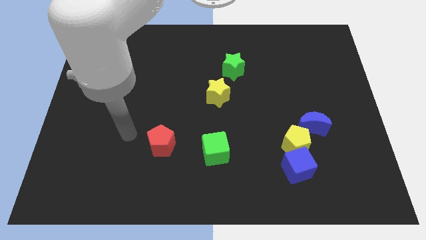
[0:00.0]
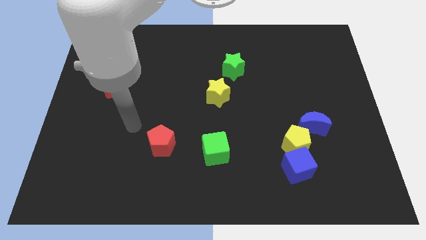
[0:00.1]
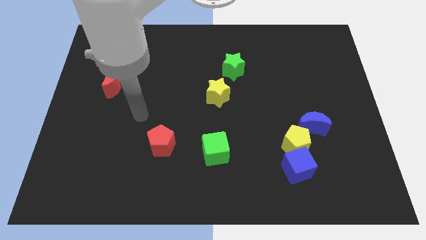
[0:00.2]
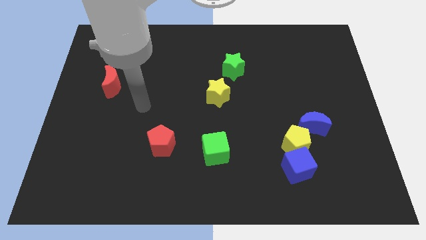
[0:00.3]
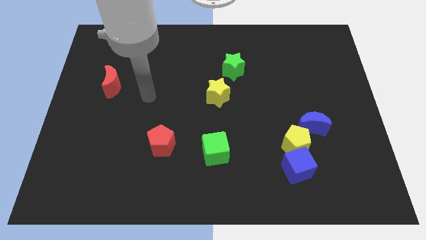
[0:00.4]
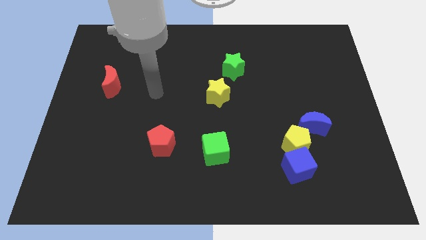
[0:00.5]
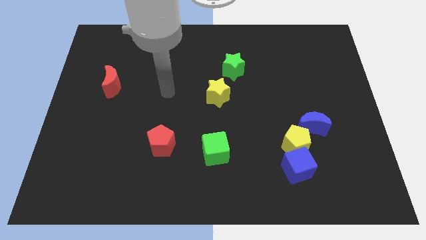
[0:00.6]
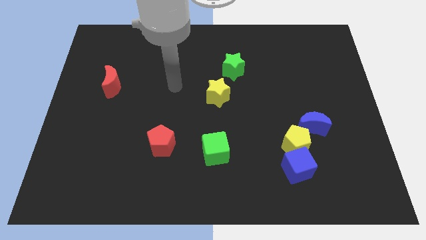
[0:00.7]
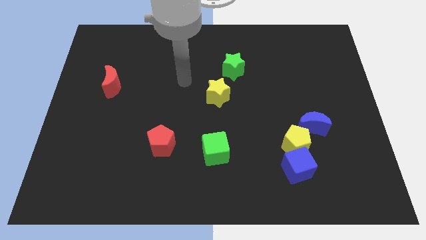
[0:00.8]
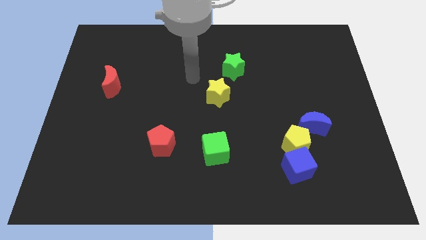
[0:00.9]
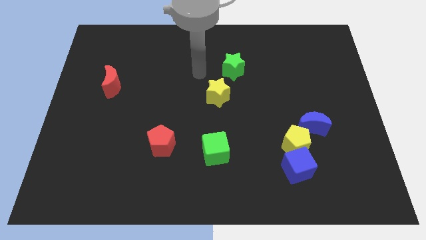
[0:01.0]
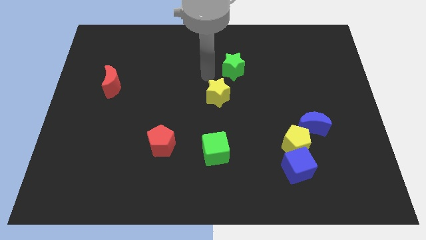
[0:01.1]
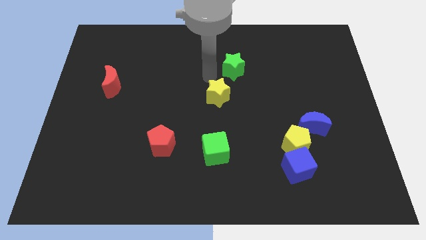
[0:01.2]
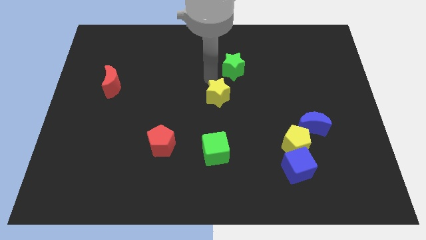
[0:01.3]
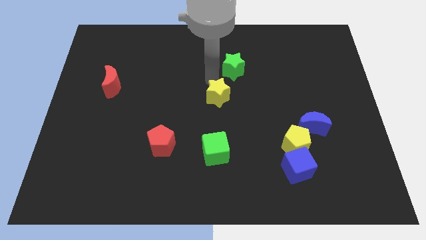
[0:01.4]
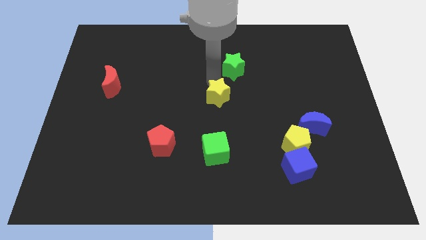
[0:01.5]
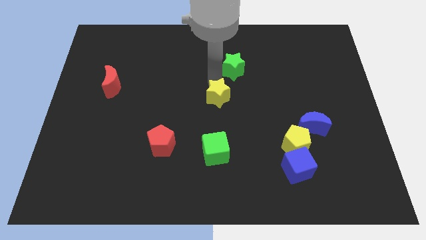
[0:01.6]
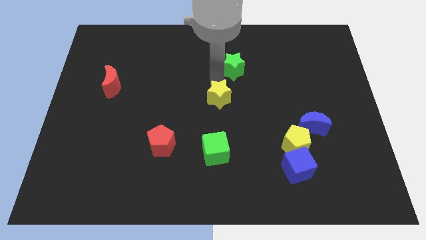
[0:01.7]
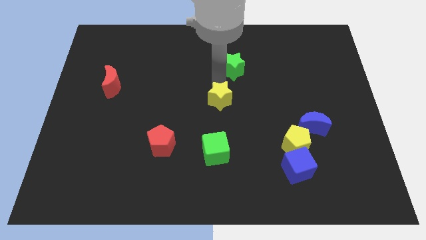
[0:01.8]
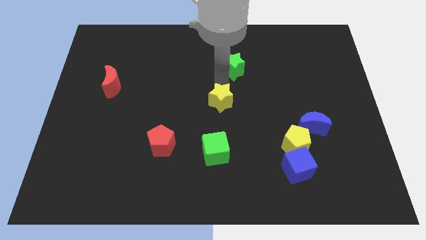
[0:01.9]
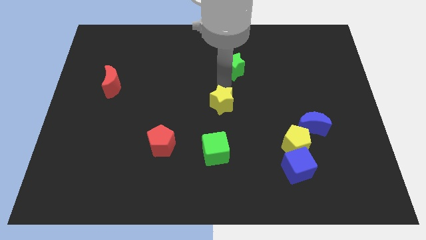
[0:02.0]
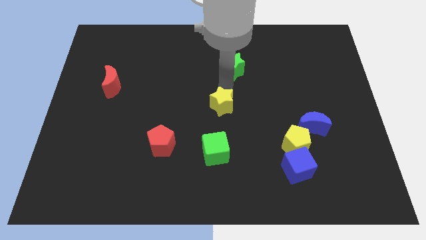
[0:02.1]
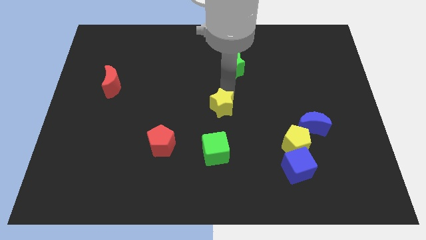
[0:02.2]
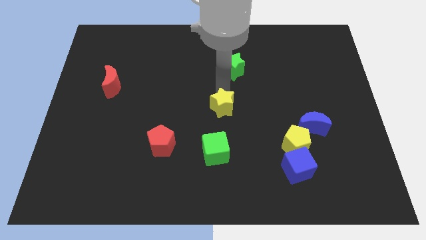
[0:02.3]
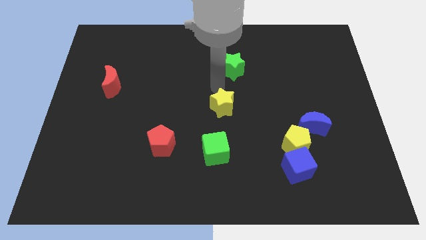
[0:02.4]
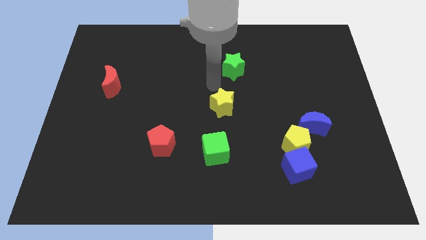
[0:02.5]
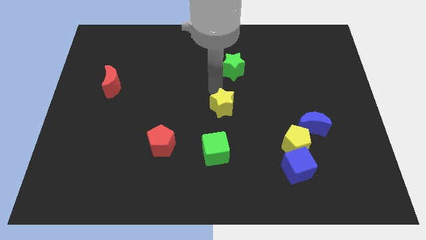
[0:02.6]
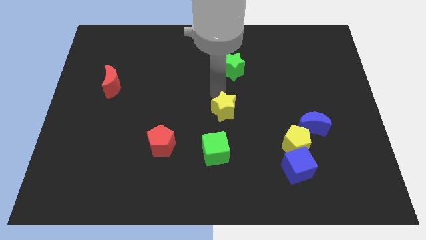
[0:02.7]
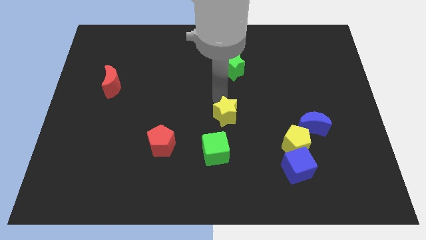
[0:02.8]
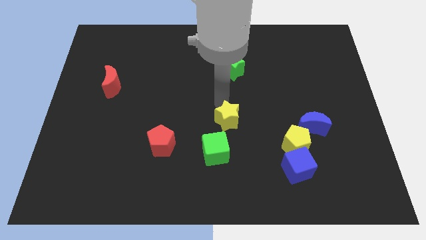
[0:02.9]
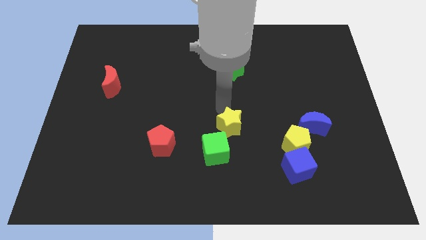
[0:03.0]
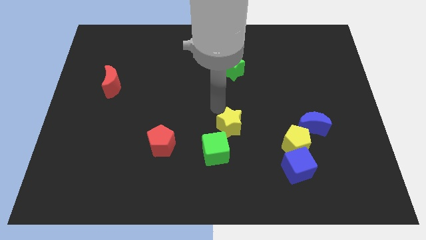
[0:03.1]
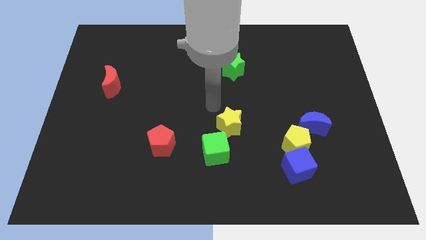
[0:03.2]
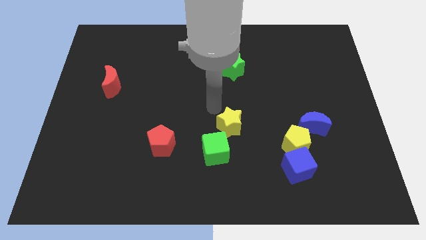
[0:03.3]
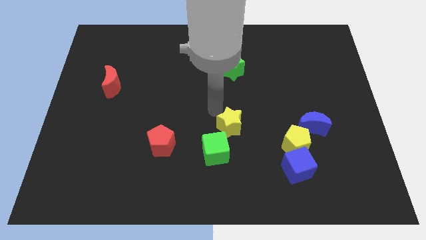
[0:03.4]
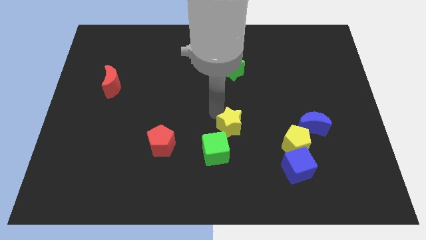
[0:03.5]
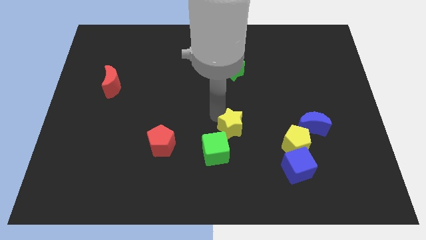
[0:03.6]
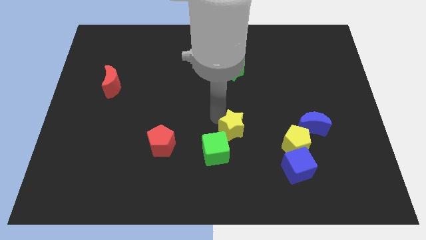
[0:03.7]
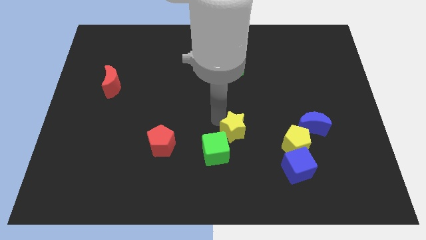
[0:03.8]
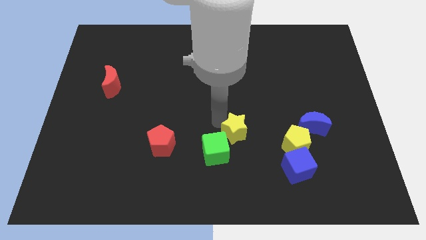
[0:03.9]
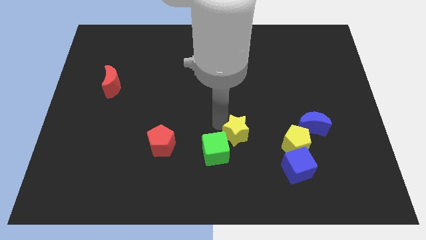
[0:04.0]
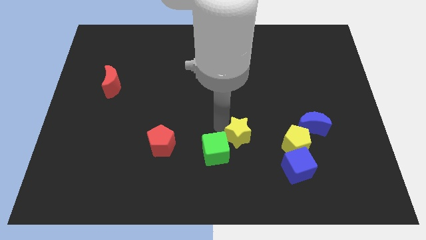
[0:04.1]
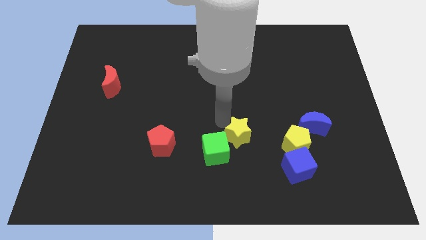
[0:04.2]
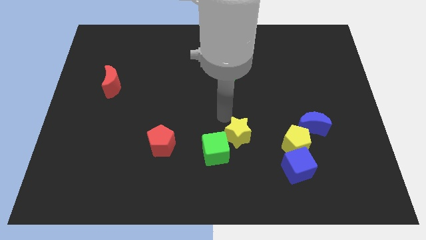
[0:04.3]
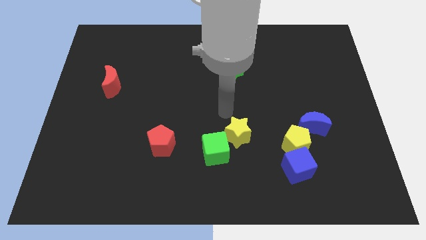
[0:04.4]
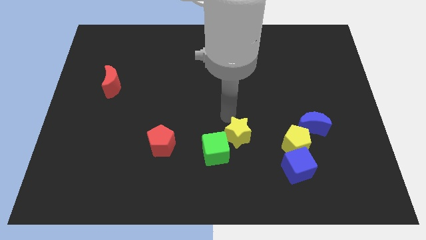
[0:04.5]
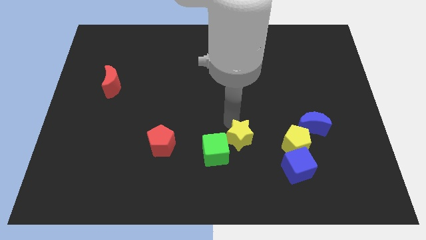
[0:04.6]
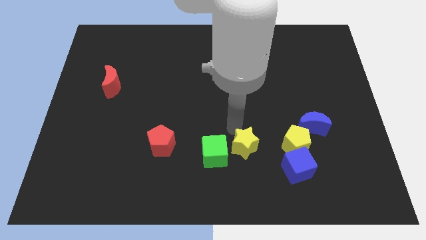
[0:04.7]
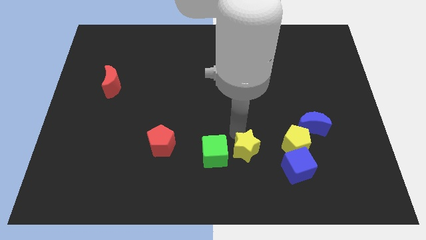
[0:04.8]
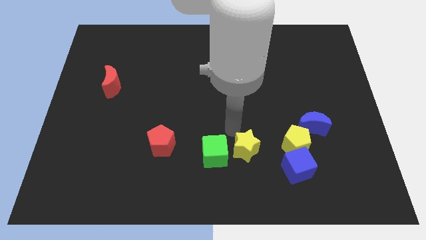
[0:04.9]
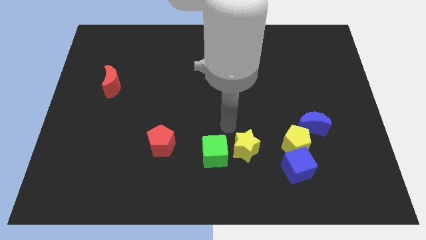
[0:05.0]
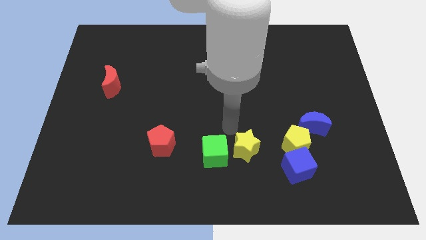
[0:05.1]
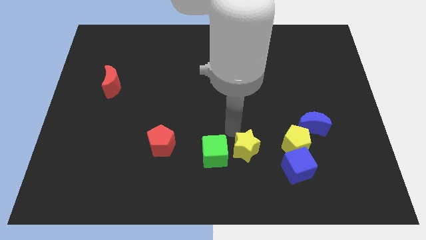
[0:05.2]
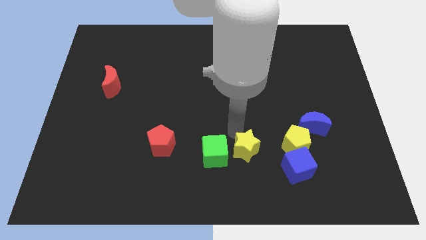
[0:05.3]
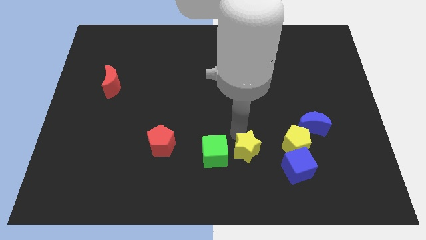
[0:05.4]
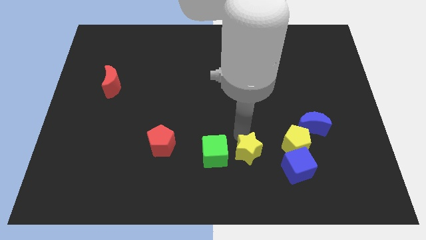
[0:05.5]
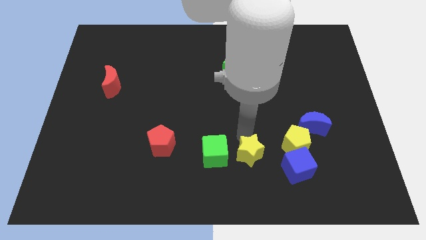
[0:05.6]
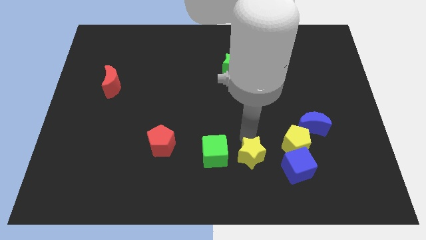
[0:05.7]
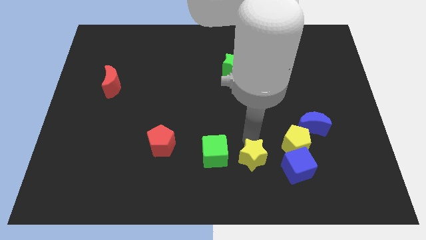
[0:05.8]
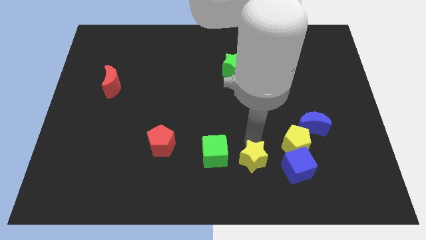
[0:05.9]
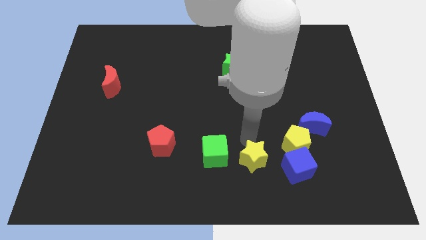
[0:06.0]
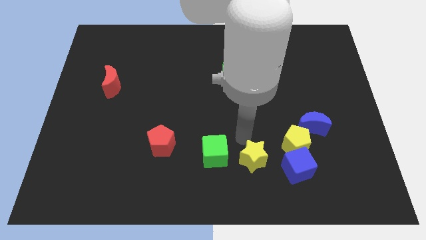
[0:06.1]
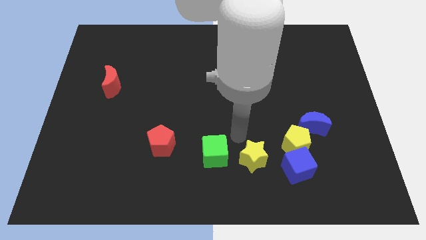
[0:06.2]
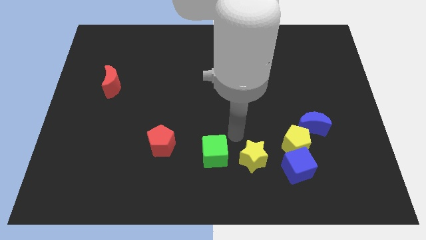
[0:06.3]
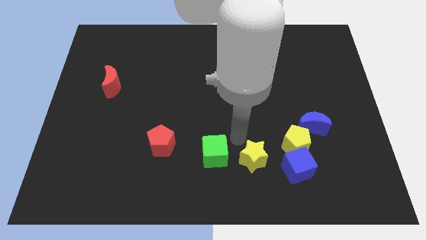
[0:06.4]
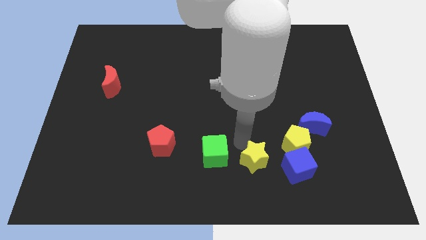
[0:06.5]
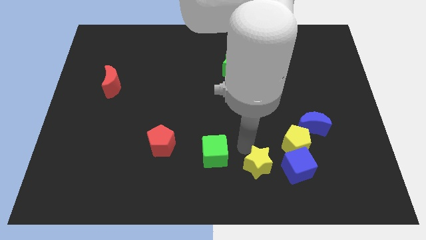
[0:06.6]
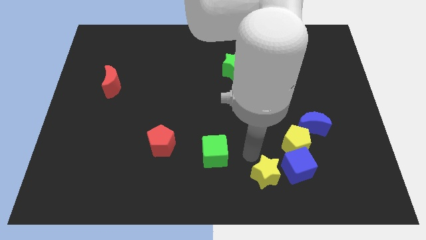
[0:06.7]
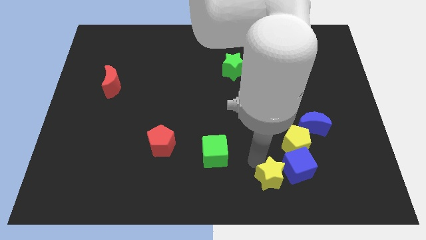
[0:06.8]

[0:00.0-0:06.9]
move the yellow star down and then right

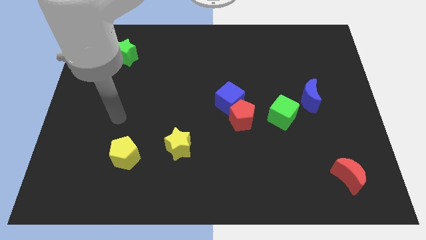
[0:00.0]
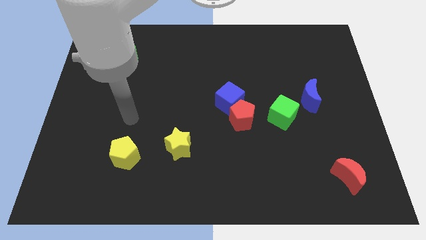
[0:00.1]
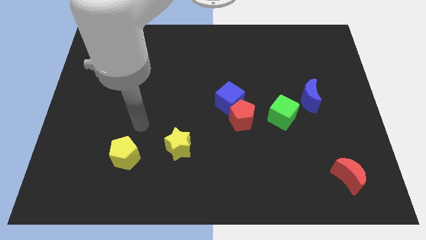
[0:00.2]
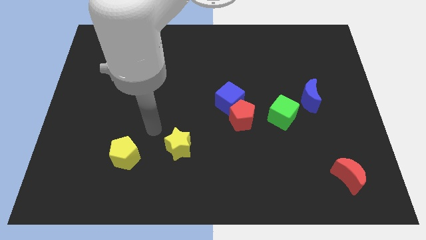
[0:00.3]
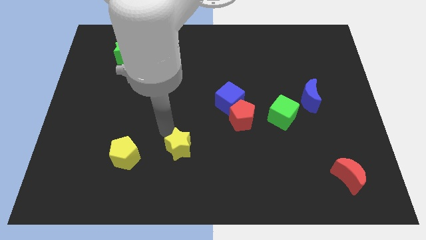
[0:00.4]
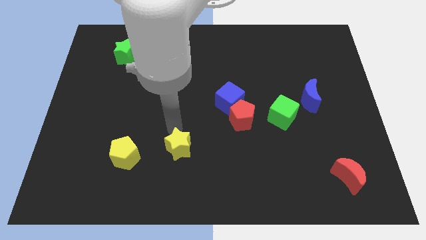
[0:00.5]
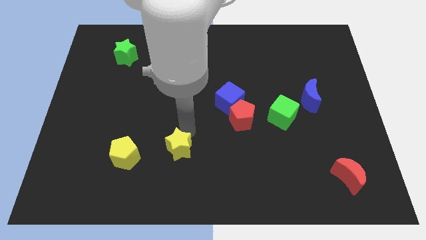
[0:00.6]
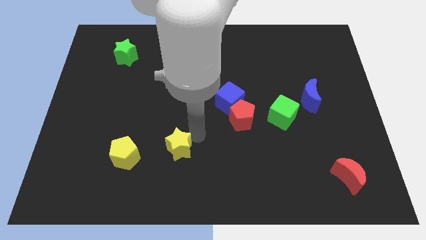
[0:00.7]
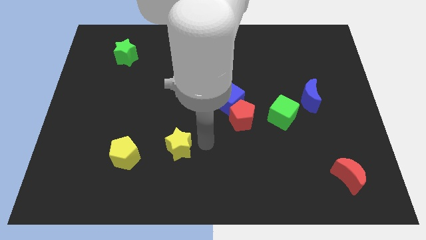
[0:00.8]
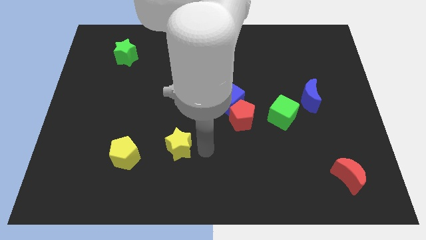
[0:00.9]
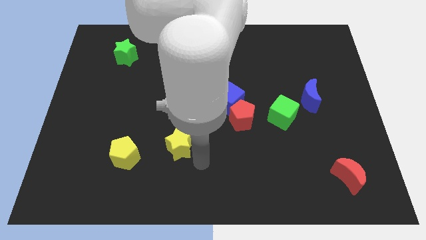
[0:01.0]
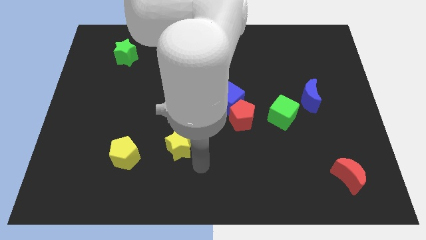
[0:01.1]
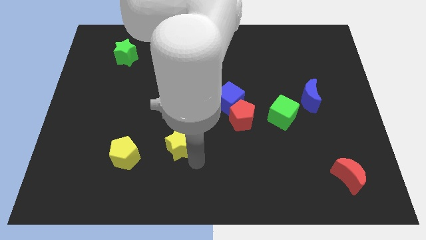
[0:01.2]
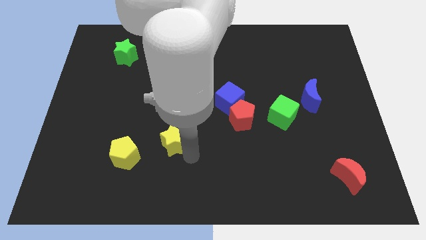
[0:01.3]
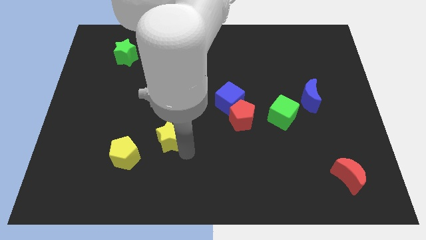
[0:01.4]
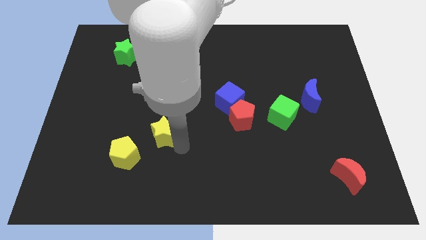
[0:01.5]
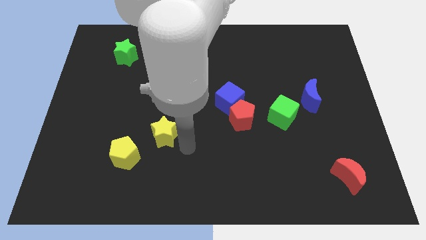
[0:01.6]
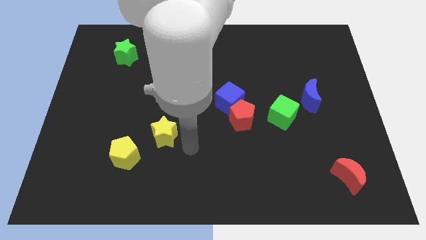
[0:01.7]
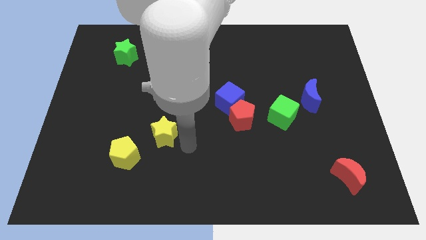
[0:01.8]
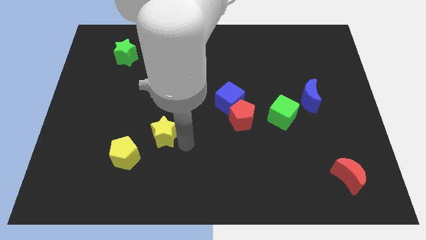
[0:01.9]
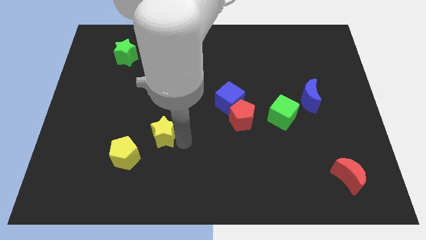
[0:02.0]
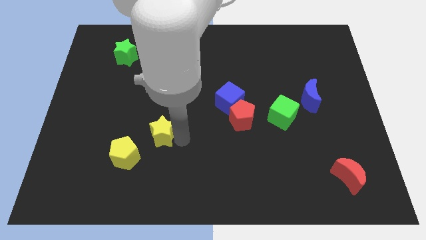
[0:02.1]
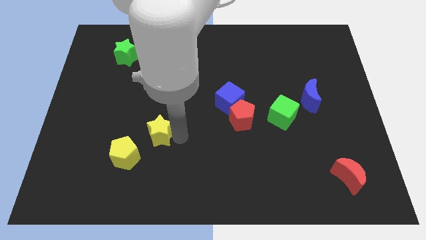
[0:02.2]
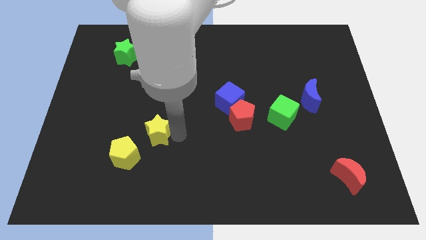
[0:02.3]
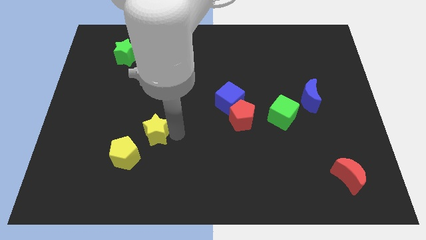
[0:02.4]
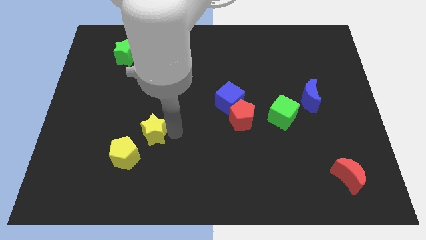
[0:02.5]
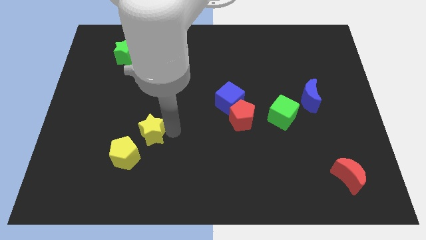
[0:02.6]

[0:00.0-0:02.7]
move the yellow star up and left diagonally a little
